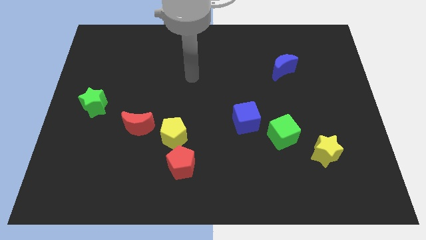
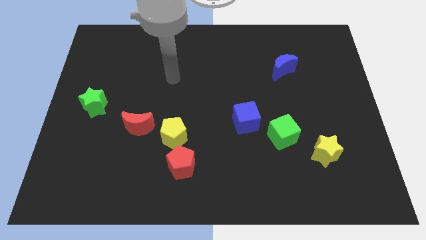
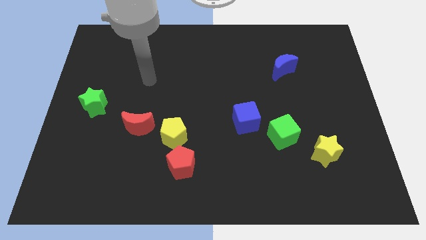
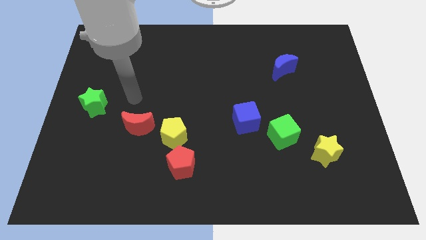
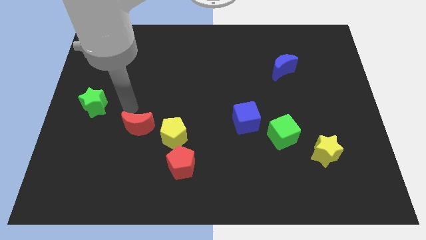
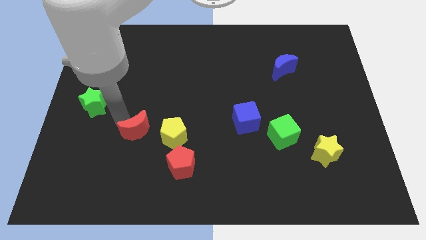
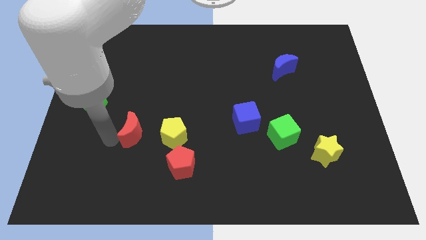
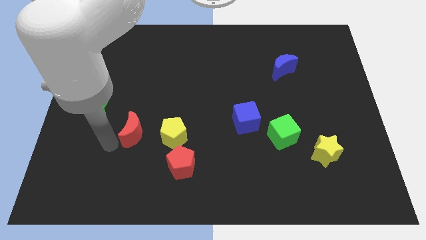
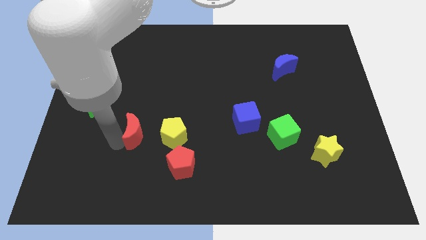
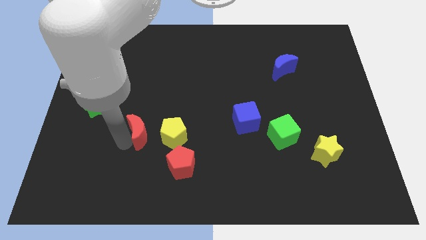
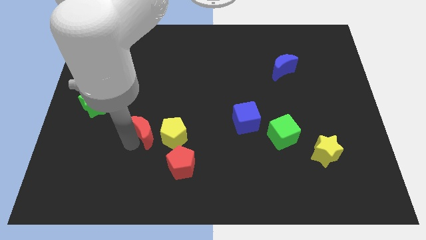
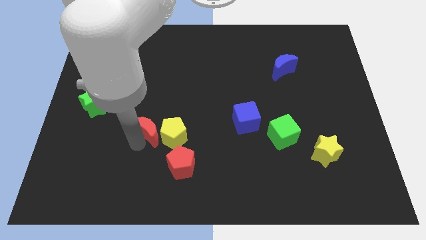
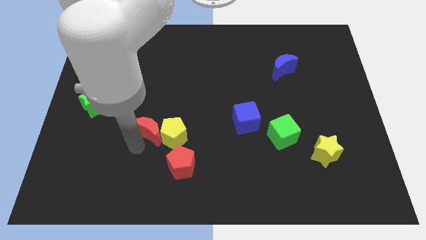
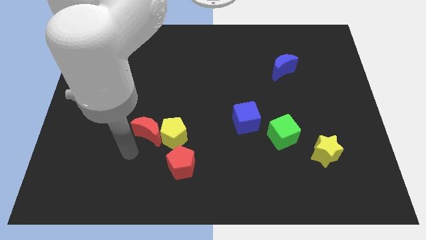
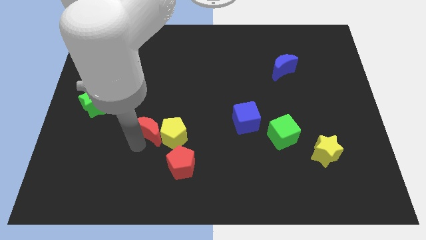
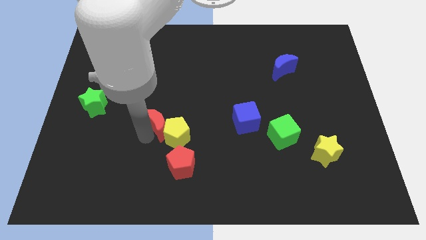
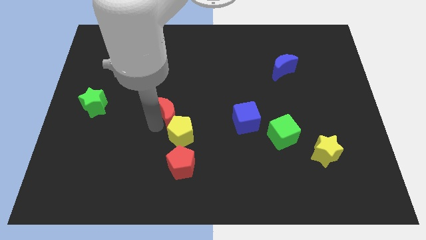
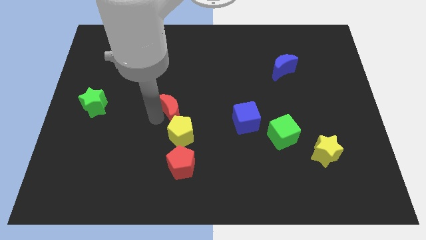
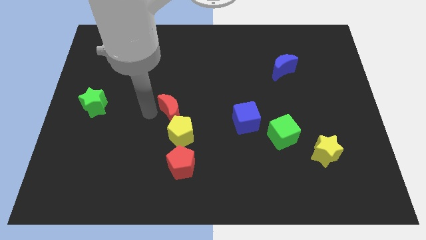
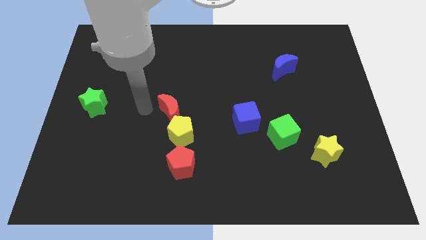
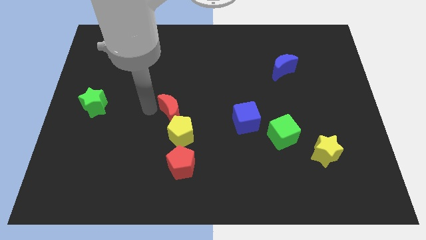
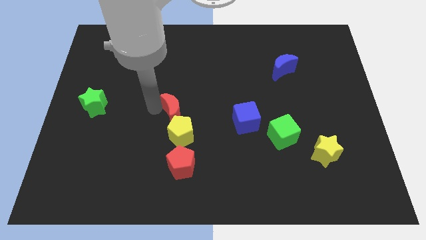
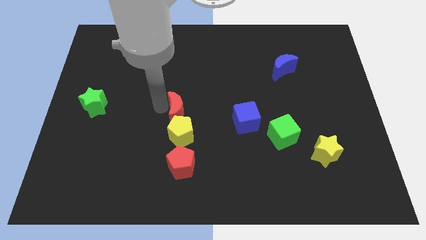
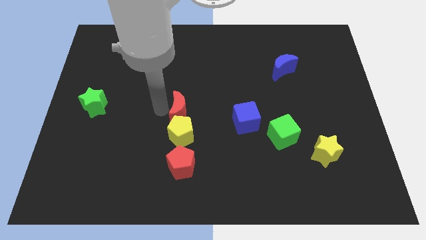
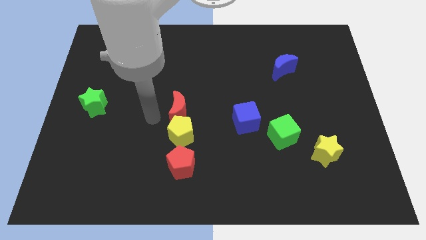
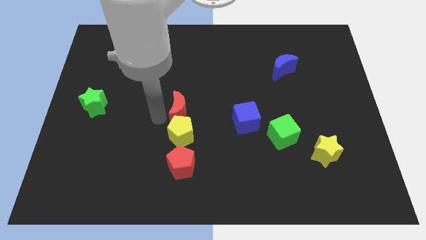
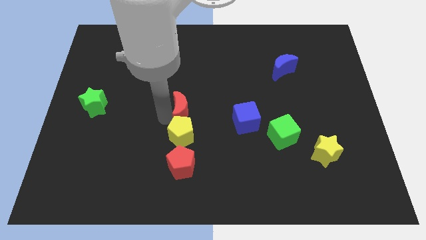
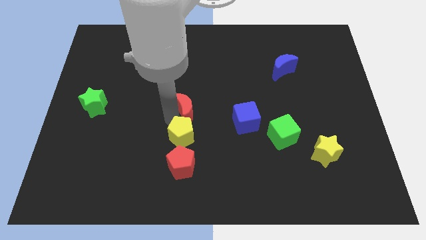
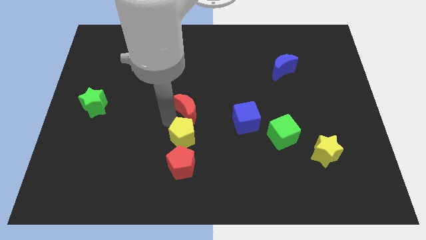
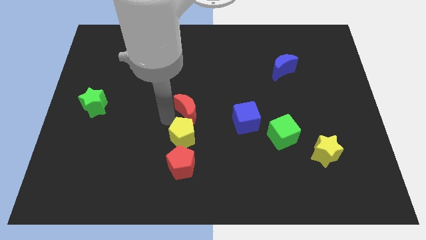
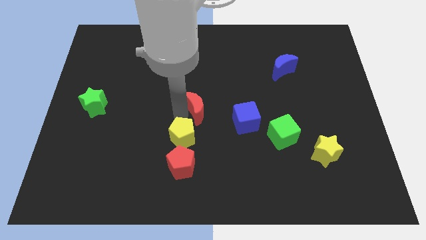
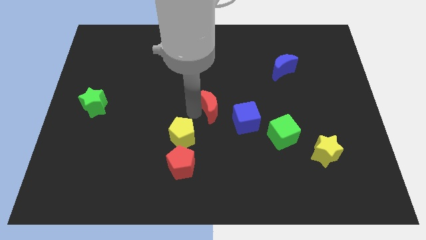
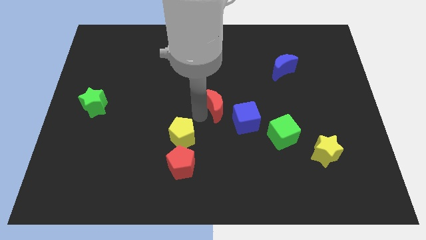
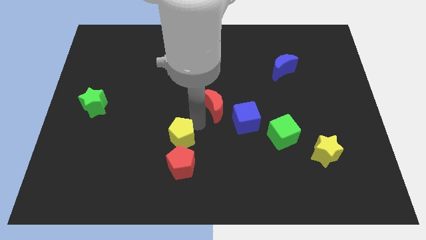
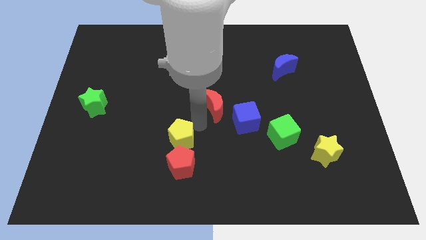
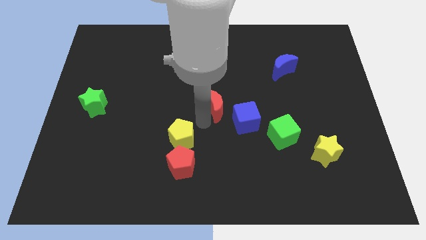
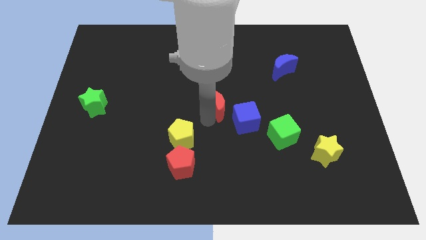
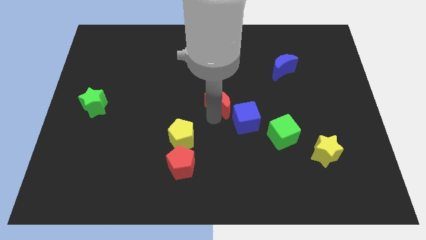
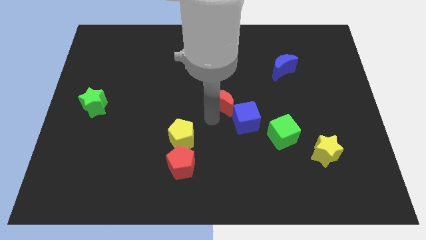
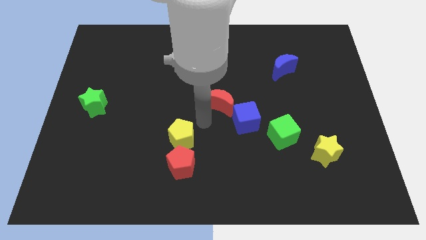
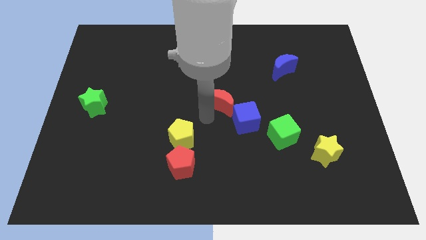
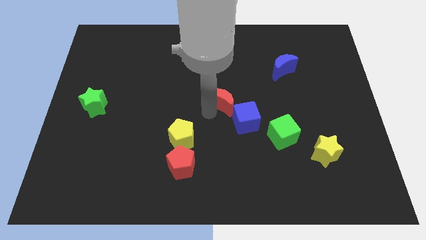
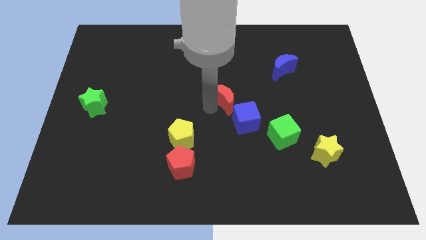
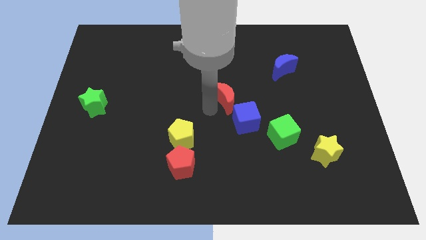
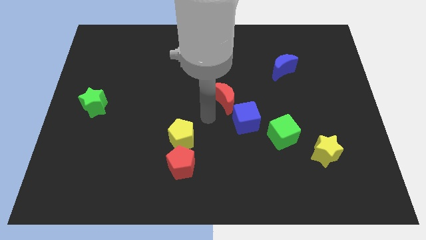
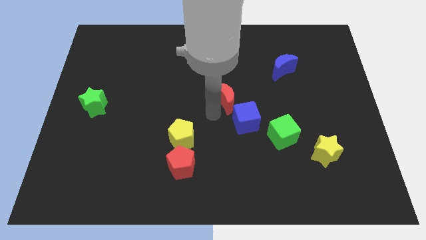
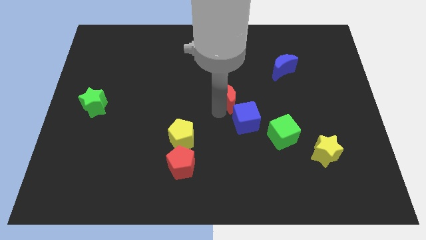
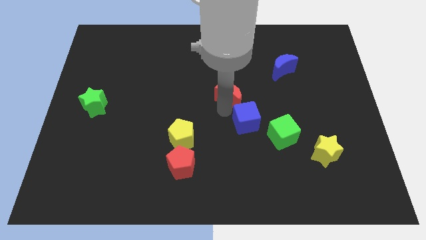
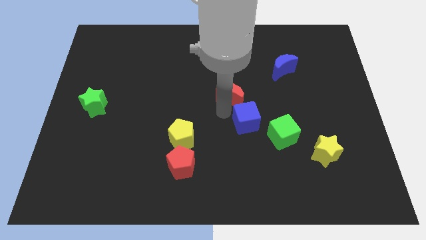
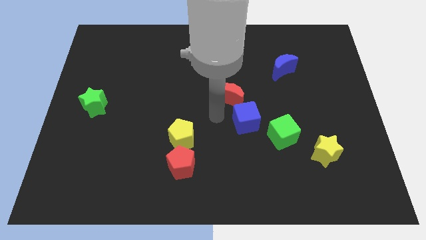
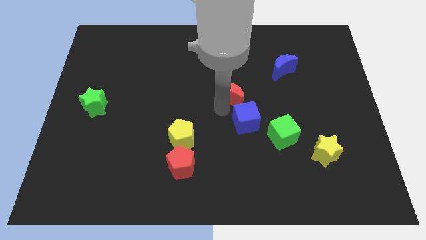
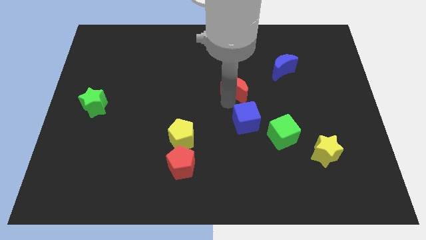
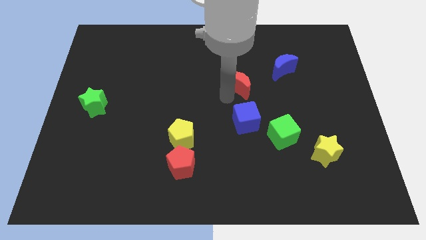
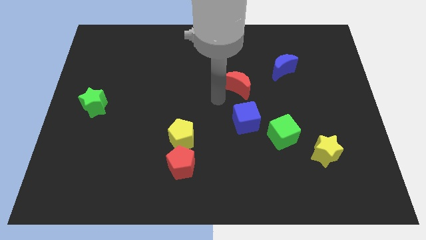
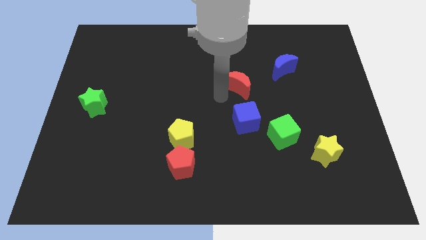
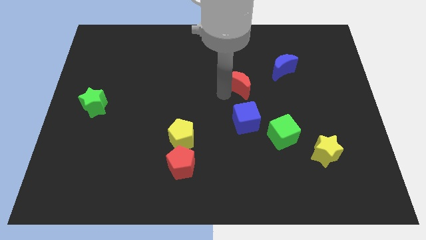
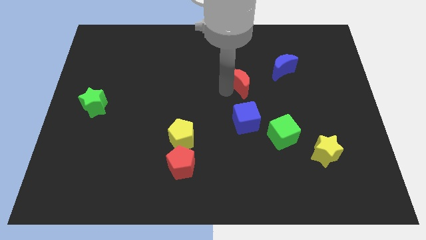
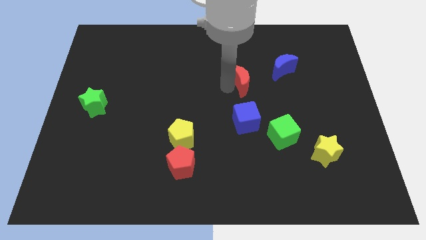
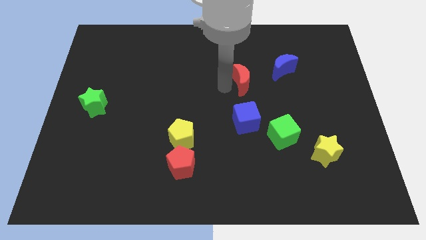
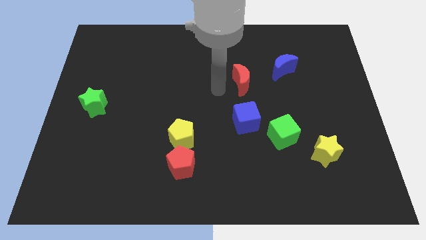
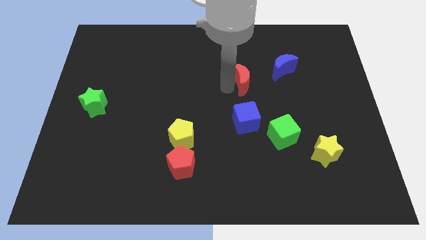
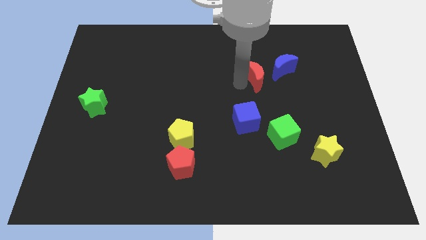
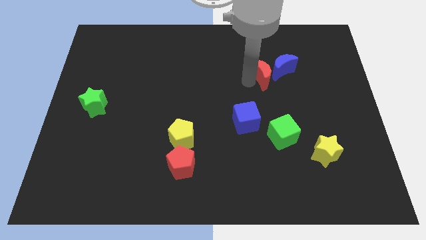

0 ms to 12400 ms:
slide the red moon next to the blue moon
